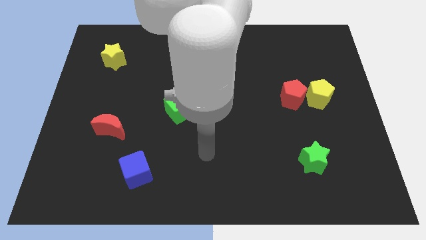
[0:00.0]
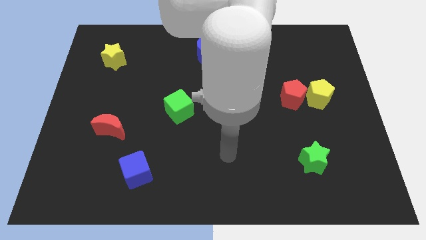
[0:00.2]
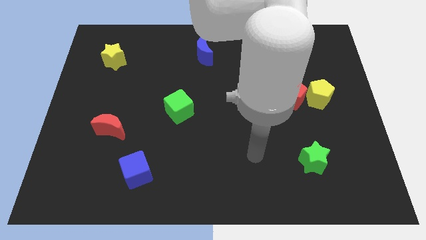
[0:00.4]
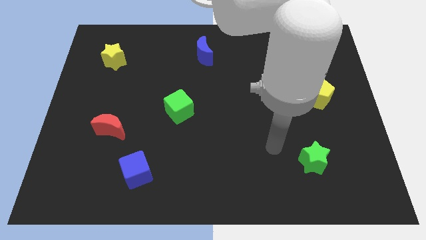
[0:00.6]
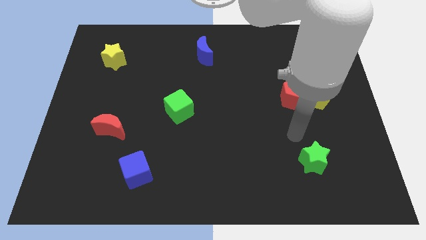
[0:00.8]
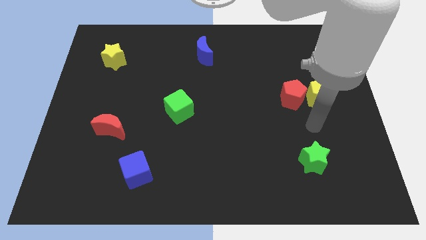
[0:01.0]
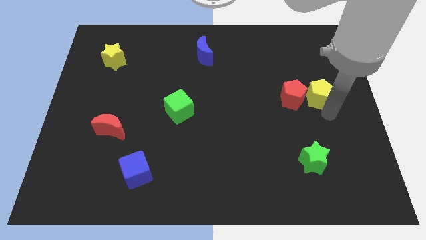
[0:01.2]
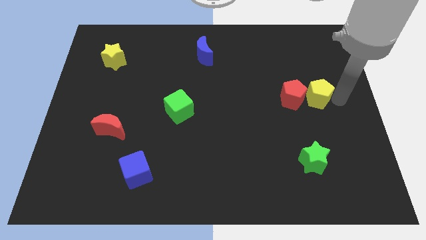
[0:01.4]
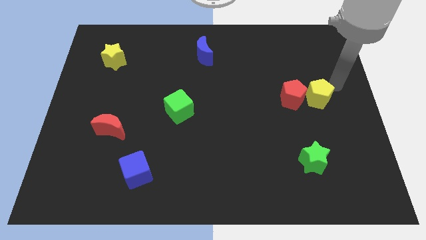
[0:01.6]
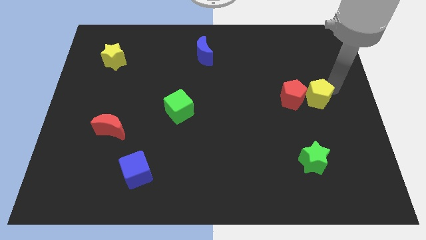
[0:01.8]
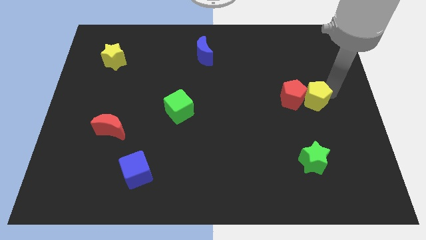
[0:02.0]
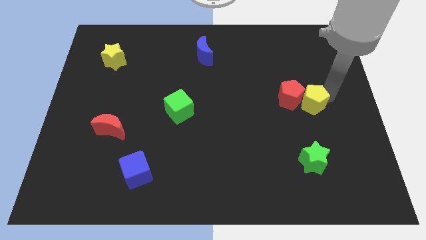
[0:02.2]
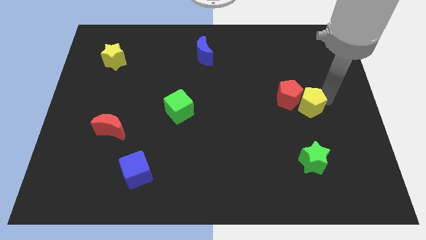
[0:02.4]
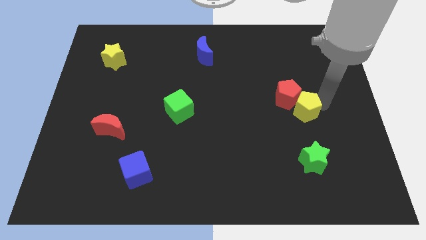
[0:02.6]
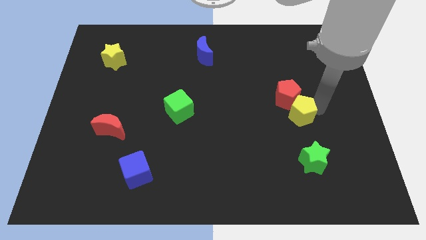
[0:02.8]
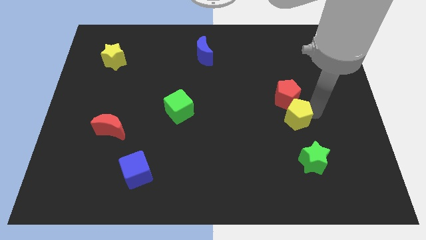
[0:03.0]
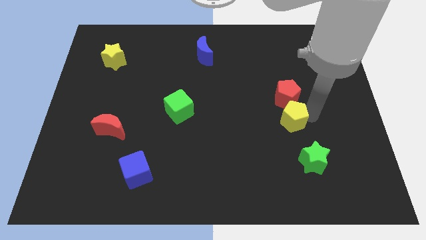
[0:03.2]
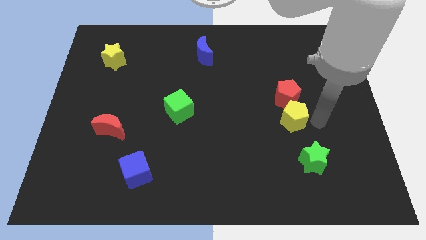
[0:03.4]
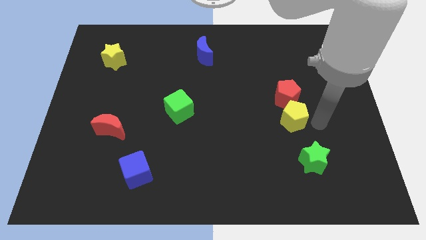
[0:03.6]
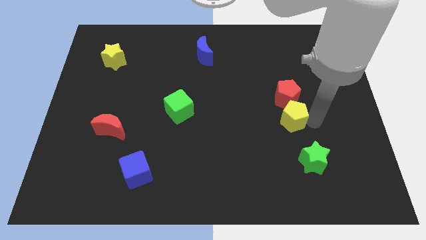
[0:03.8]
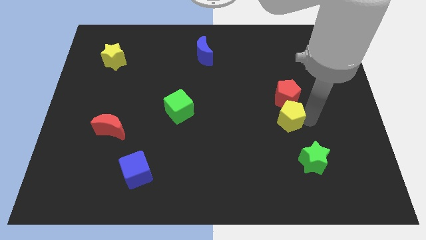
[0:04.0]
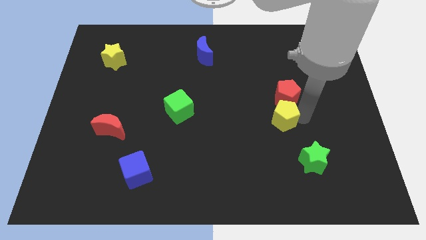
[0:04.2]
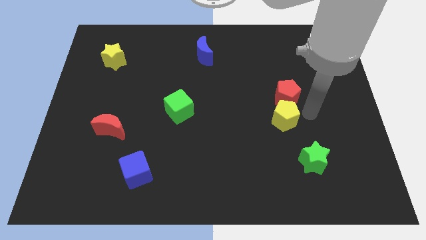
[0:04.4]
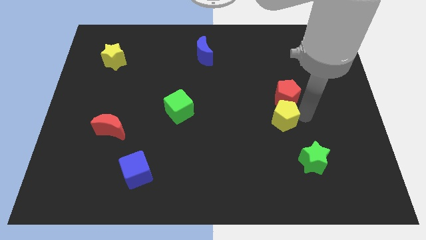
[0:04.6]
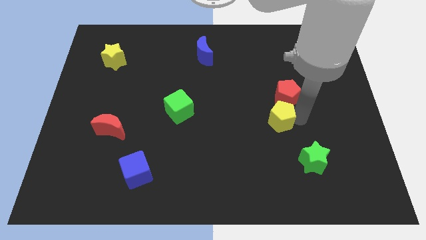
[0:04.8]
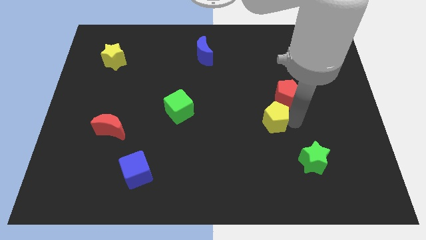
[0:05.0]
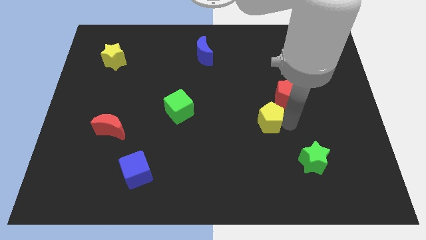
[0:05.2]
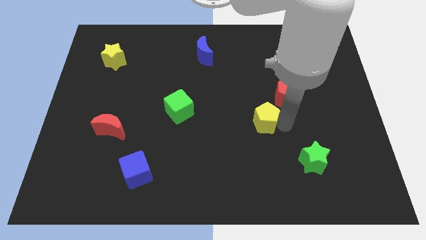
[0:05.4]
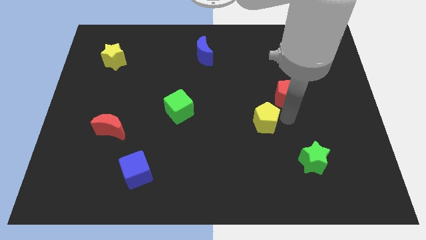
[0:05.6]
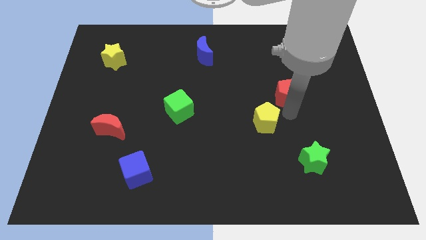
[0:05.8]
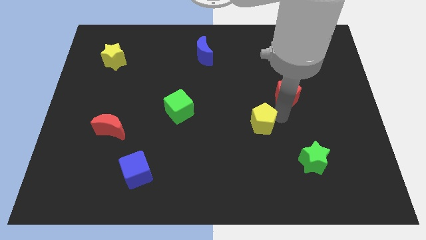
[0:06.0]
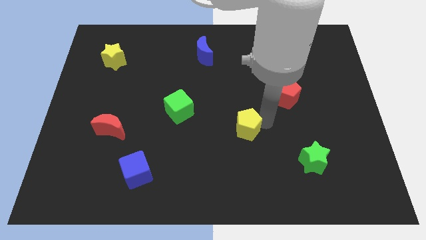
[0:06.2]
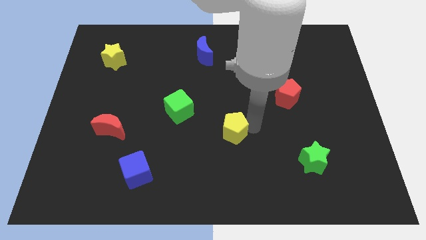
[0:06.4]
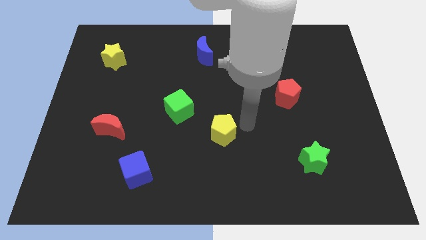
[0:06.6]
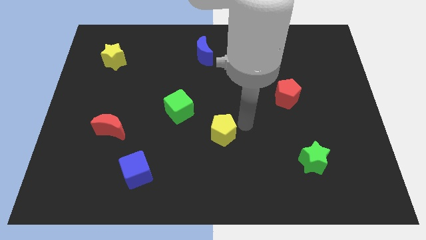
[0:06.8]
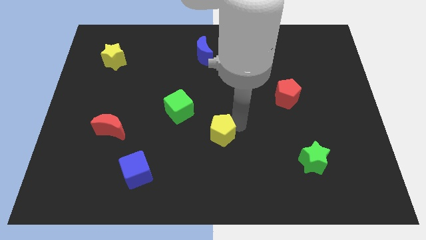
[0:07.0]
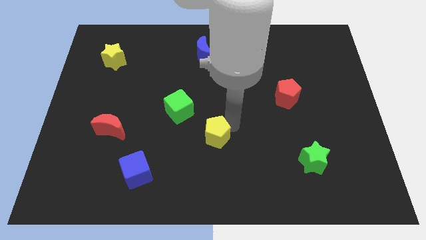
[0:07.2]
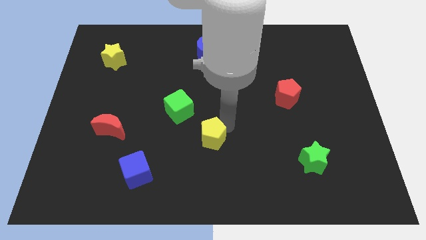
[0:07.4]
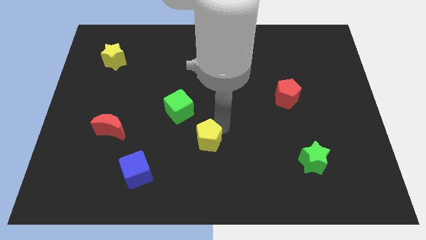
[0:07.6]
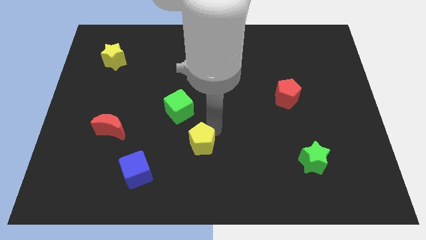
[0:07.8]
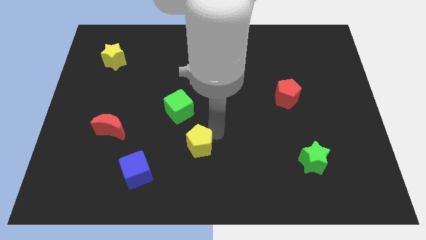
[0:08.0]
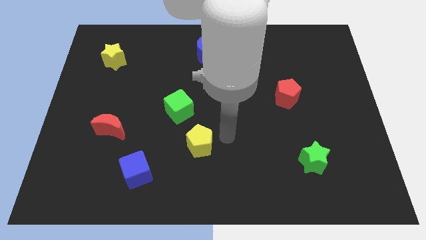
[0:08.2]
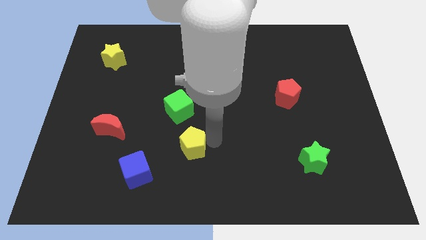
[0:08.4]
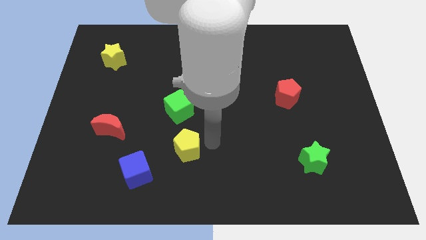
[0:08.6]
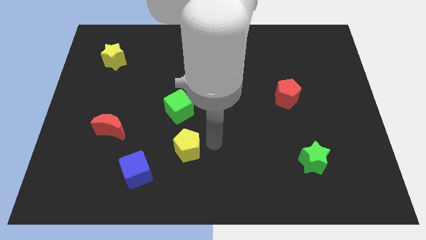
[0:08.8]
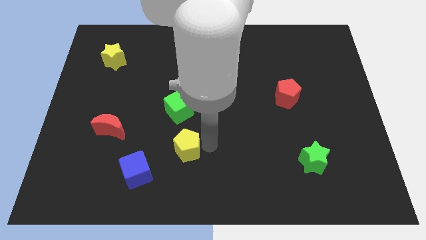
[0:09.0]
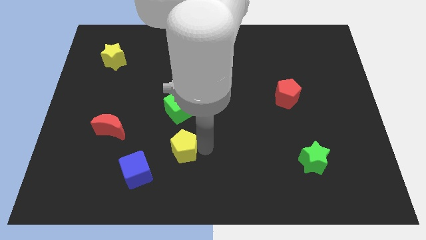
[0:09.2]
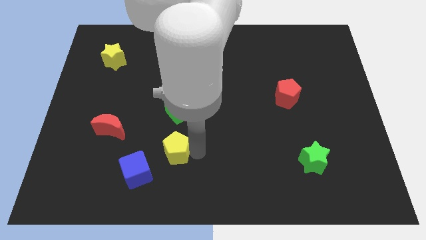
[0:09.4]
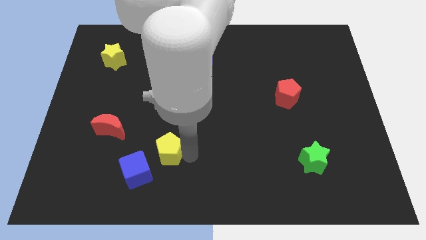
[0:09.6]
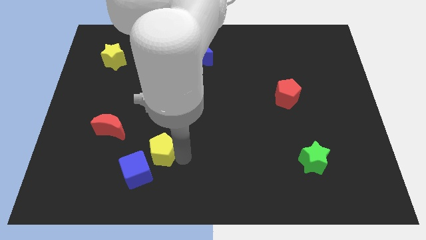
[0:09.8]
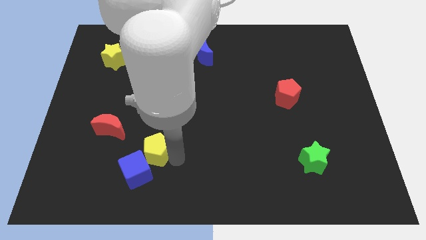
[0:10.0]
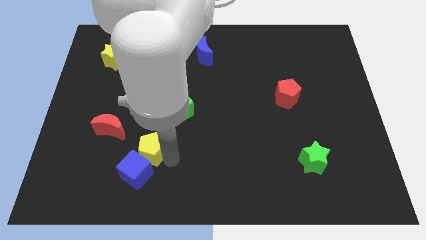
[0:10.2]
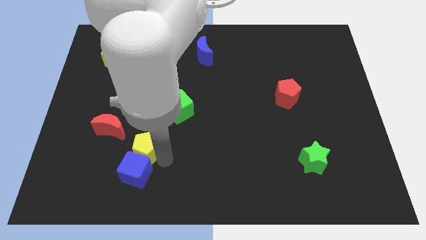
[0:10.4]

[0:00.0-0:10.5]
slide the yellow pentagon to the top left of the blue cube

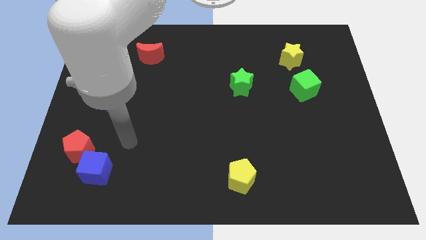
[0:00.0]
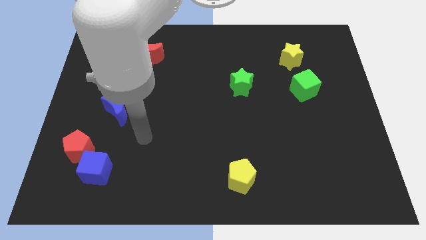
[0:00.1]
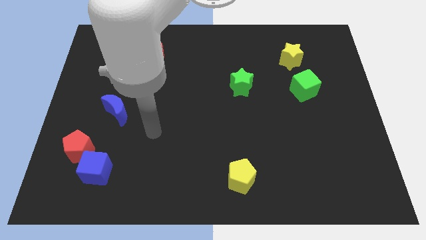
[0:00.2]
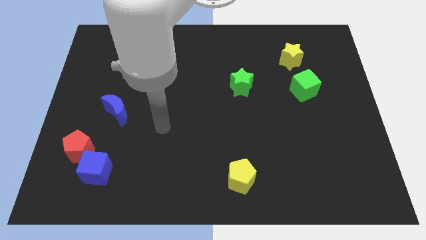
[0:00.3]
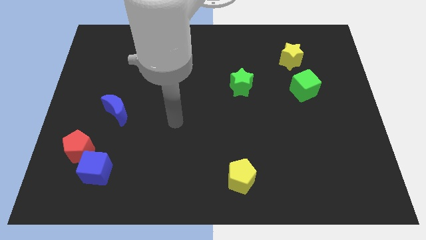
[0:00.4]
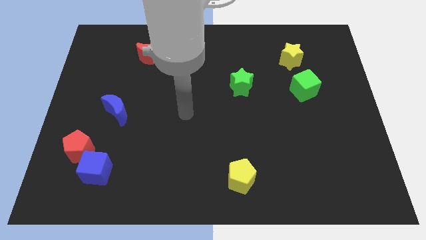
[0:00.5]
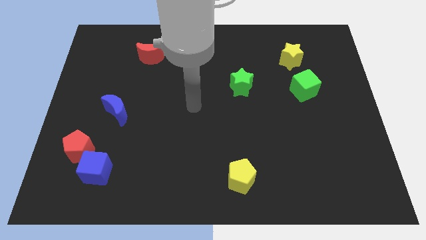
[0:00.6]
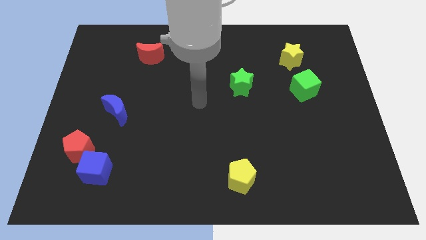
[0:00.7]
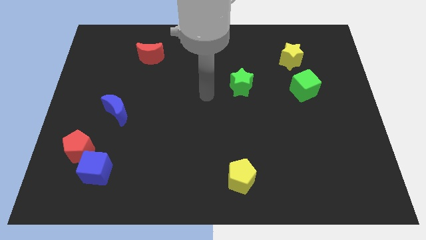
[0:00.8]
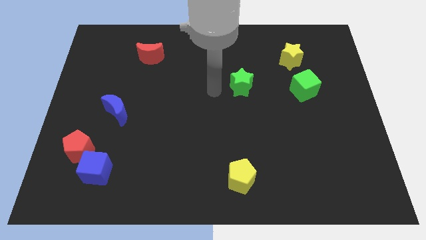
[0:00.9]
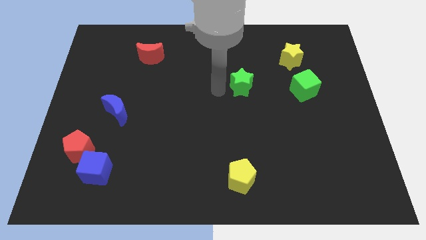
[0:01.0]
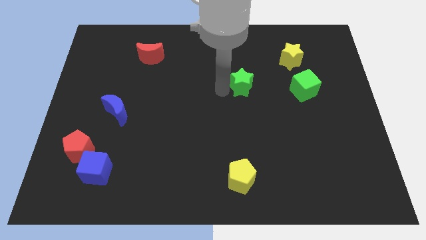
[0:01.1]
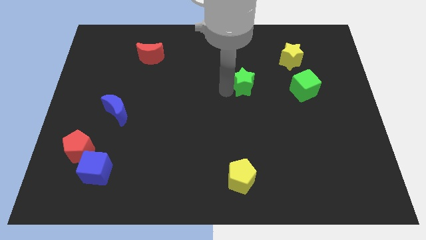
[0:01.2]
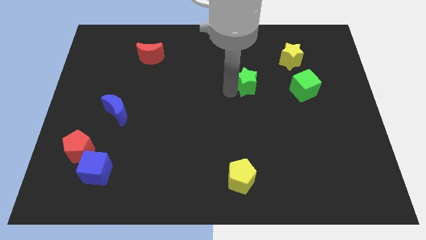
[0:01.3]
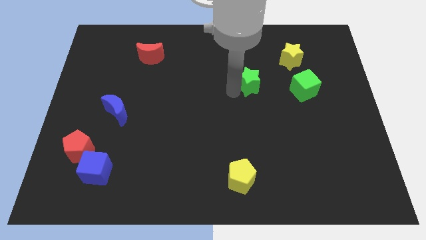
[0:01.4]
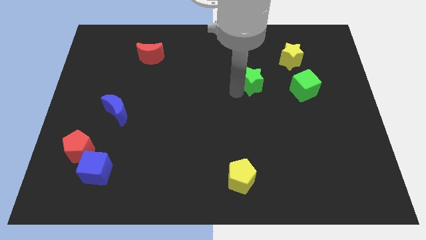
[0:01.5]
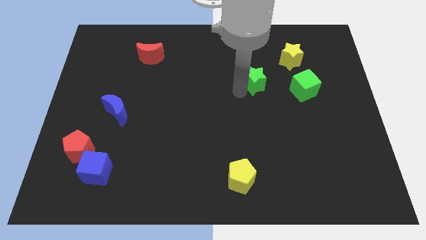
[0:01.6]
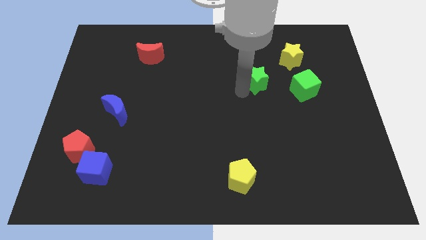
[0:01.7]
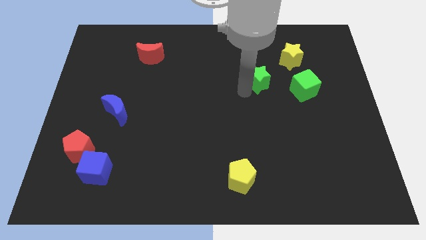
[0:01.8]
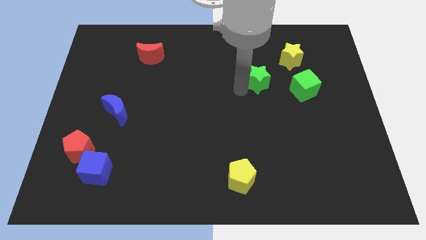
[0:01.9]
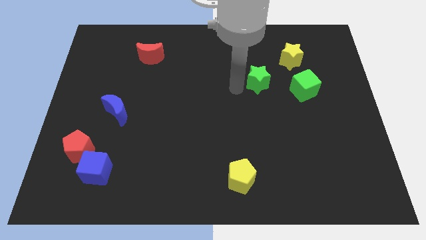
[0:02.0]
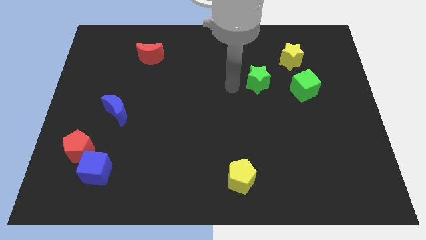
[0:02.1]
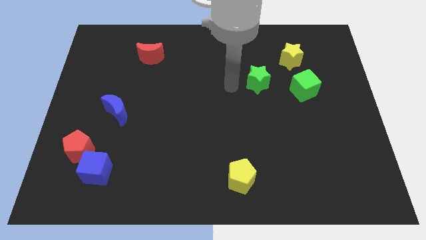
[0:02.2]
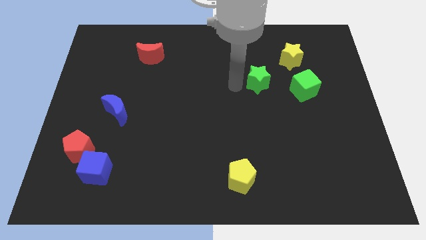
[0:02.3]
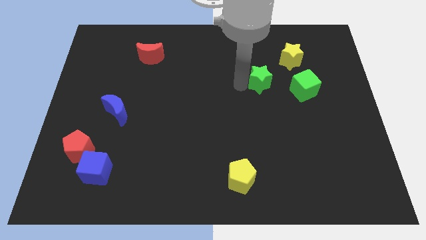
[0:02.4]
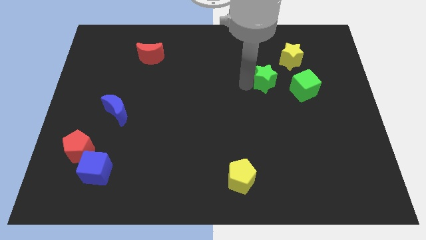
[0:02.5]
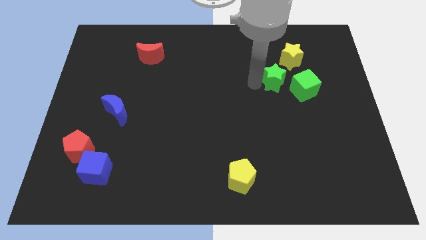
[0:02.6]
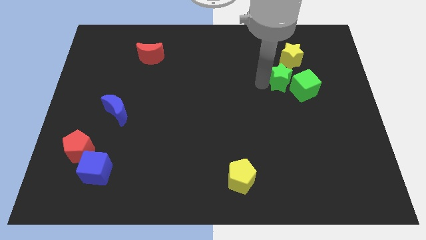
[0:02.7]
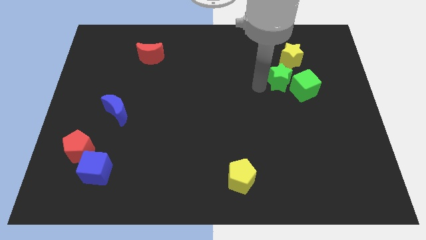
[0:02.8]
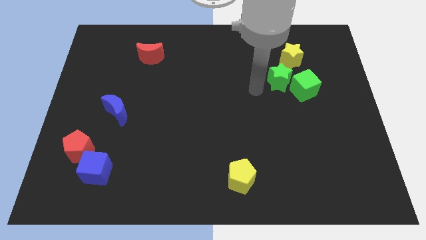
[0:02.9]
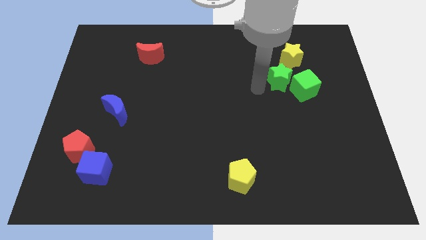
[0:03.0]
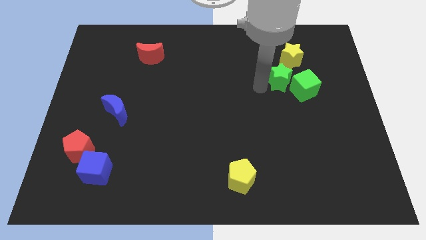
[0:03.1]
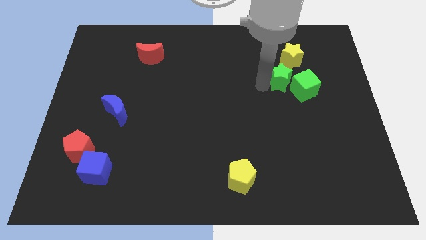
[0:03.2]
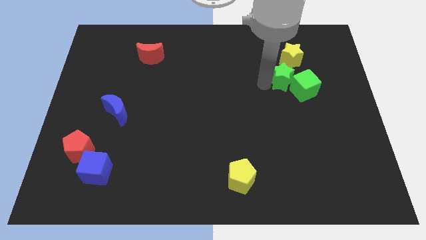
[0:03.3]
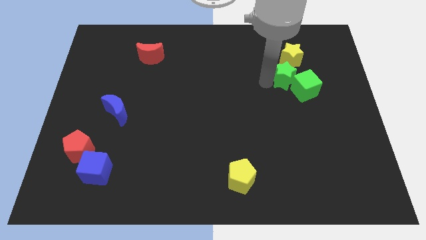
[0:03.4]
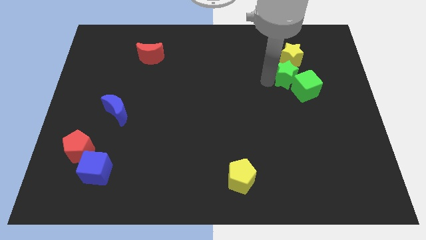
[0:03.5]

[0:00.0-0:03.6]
move the green star to the top side of the green cube
